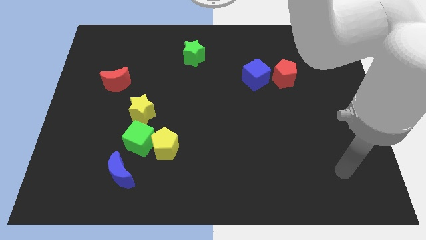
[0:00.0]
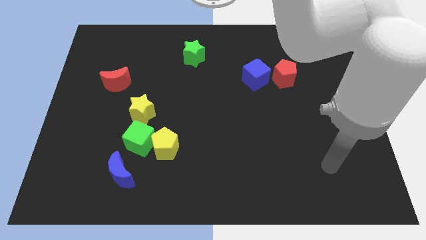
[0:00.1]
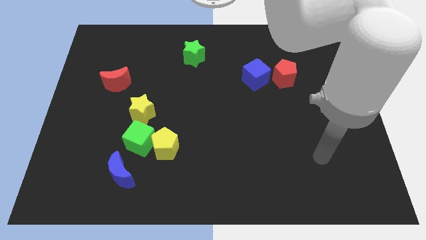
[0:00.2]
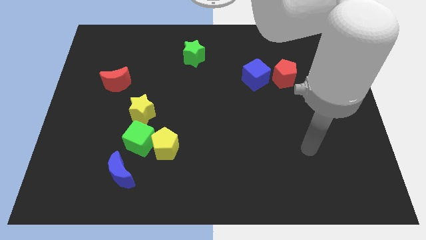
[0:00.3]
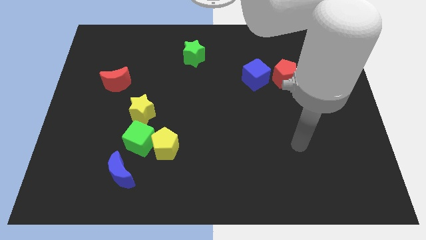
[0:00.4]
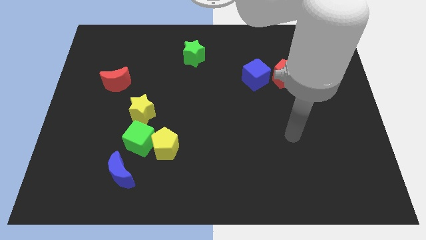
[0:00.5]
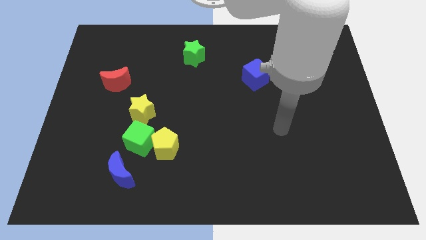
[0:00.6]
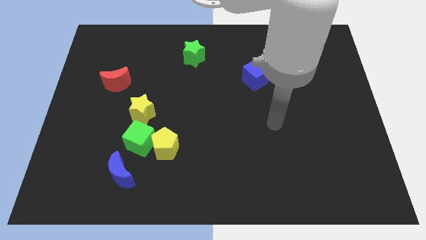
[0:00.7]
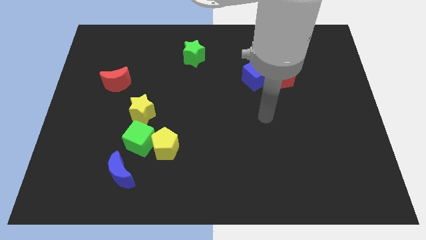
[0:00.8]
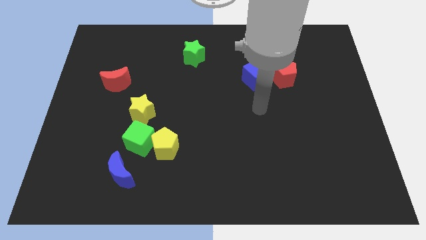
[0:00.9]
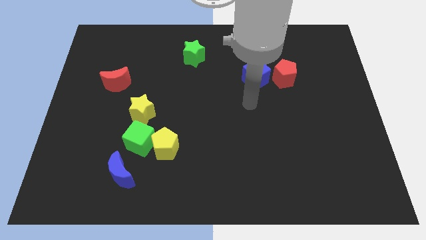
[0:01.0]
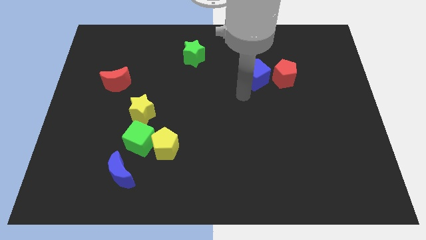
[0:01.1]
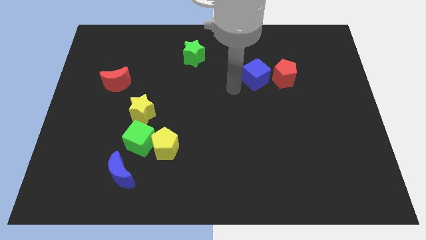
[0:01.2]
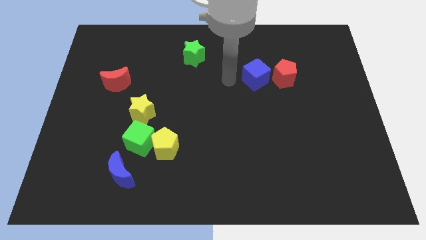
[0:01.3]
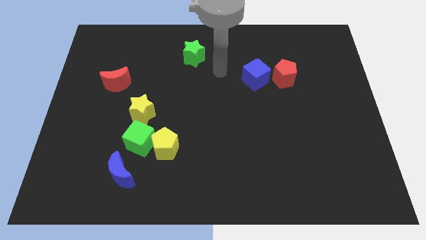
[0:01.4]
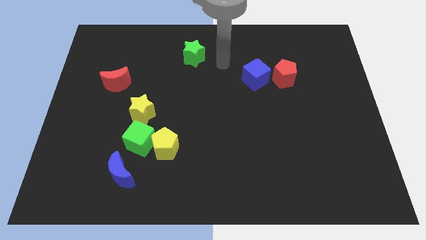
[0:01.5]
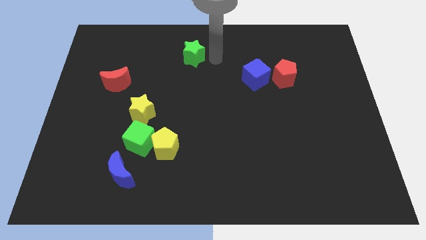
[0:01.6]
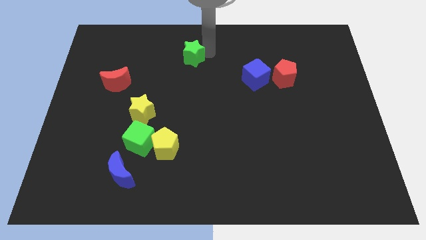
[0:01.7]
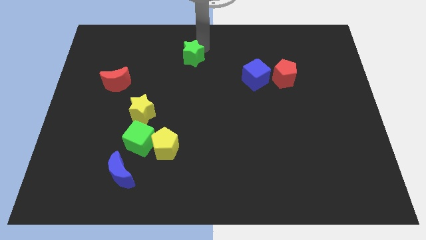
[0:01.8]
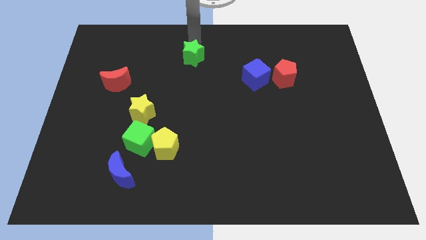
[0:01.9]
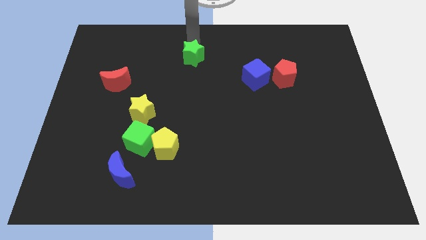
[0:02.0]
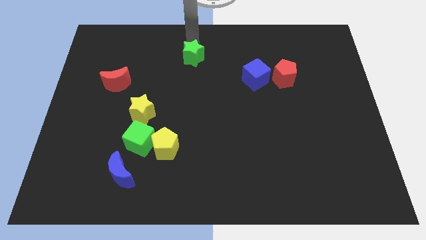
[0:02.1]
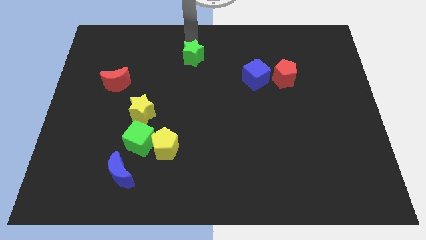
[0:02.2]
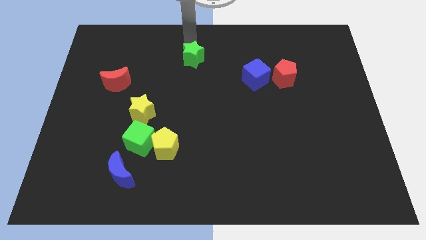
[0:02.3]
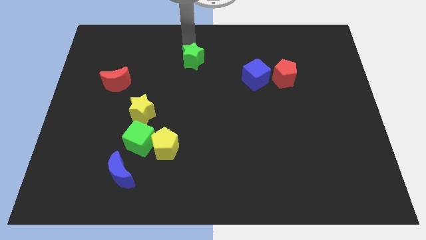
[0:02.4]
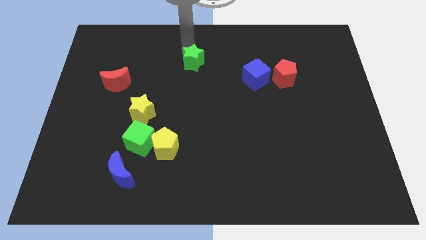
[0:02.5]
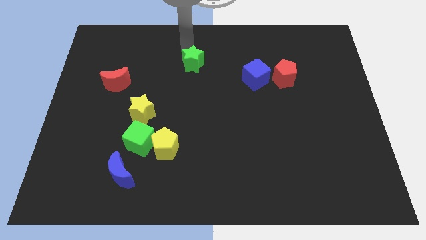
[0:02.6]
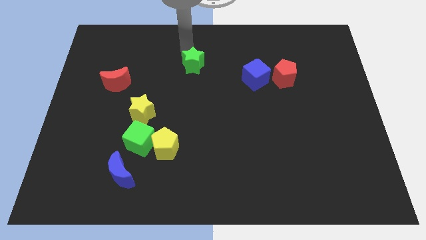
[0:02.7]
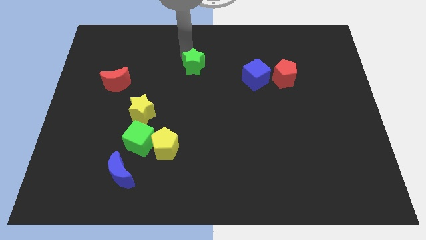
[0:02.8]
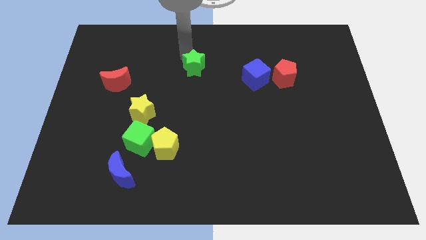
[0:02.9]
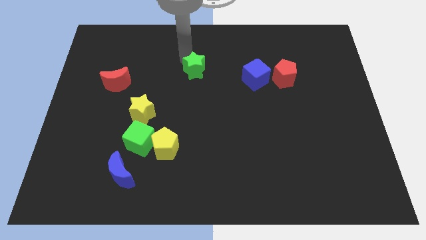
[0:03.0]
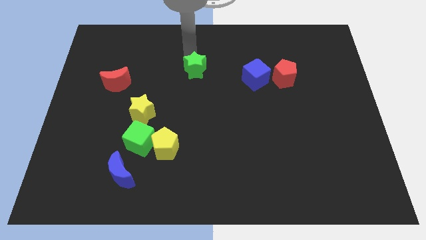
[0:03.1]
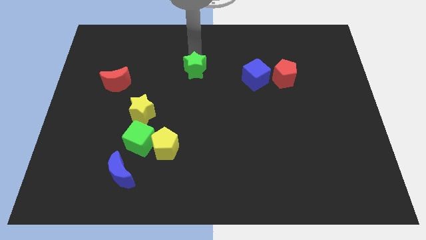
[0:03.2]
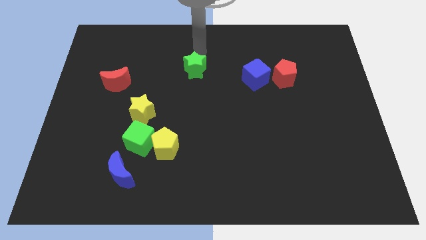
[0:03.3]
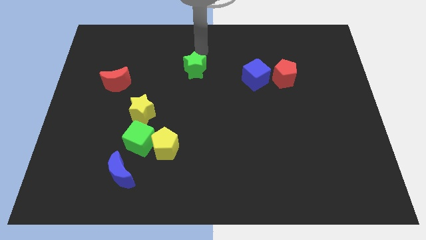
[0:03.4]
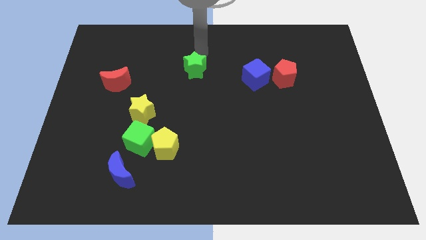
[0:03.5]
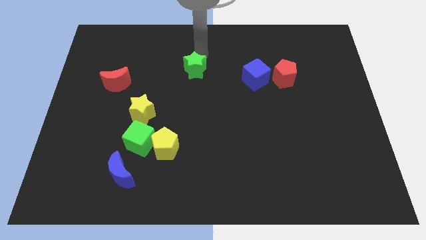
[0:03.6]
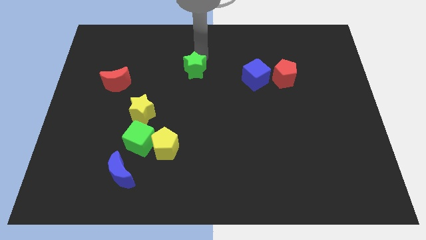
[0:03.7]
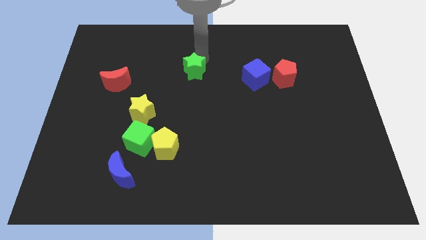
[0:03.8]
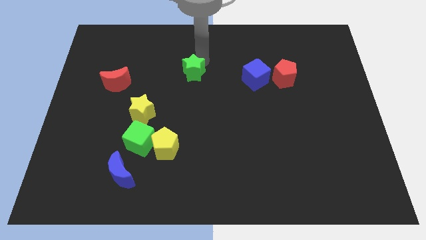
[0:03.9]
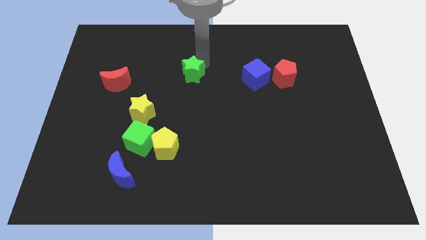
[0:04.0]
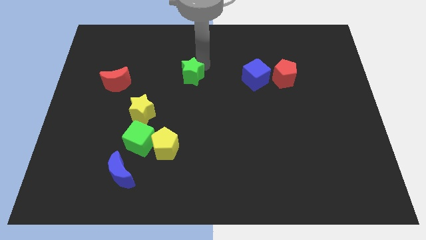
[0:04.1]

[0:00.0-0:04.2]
move the green star down somewhat

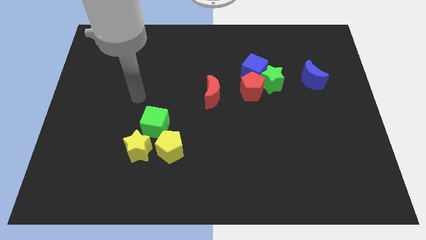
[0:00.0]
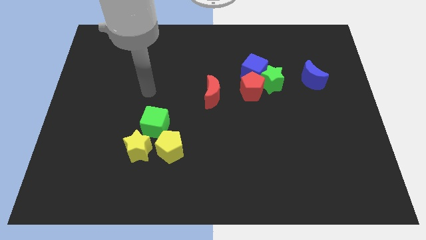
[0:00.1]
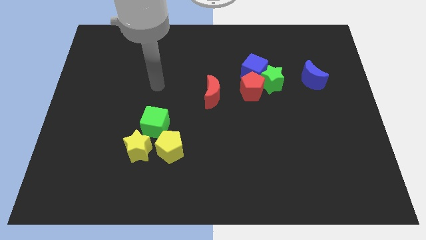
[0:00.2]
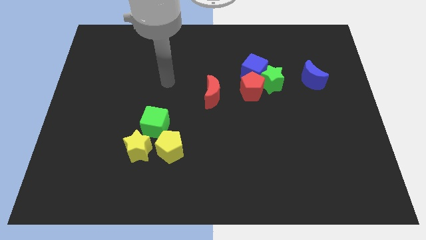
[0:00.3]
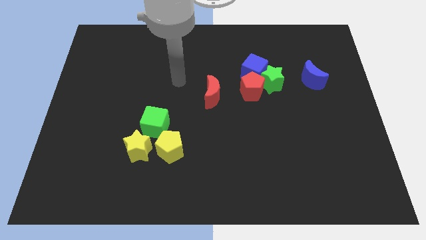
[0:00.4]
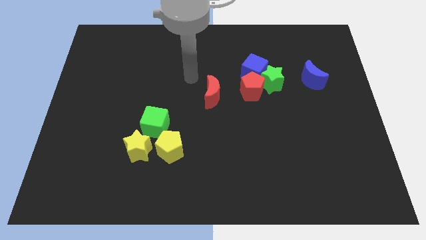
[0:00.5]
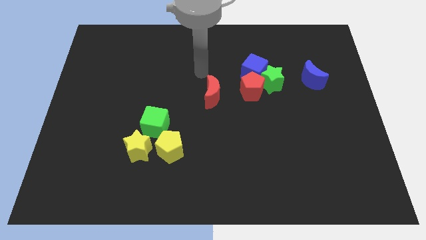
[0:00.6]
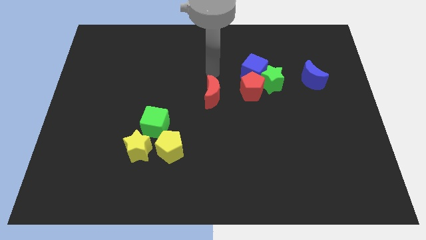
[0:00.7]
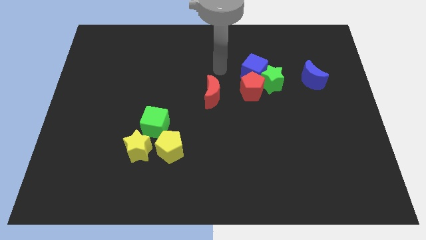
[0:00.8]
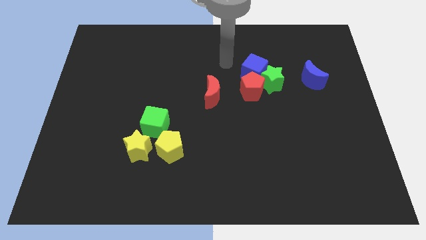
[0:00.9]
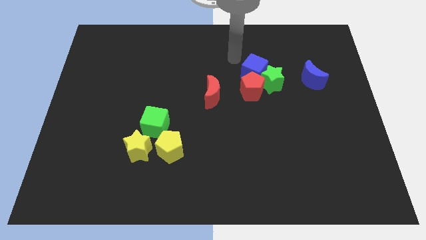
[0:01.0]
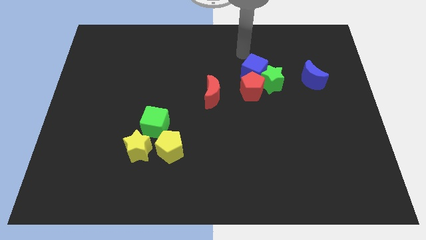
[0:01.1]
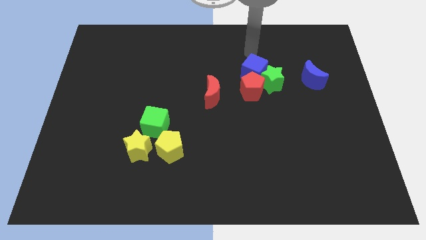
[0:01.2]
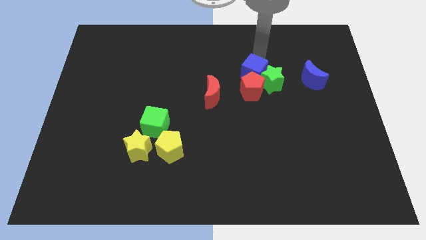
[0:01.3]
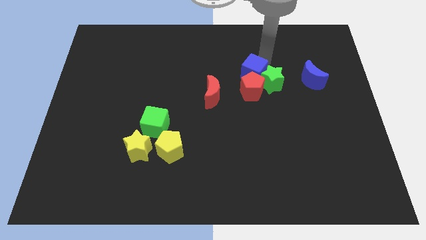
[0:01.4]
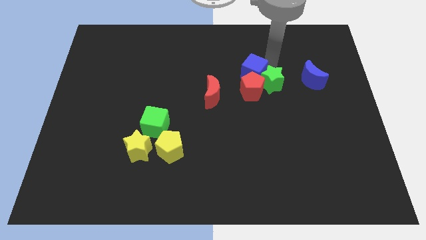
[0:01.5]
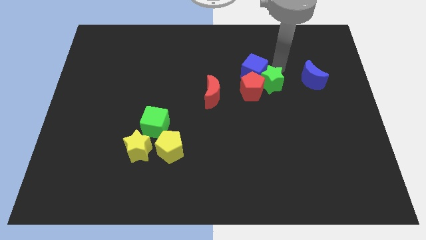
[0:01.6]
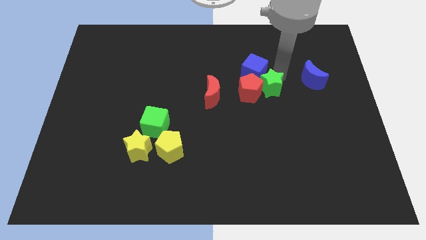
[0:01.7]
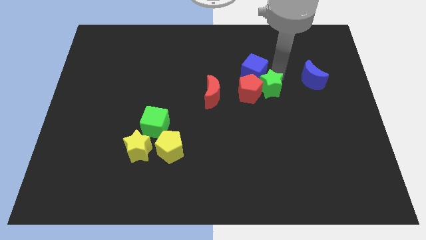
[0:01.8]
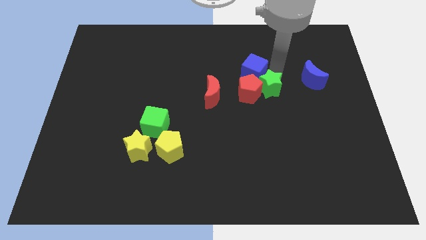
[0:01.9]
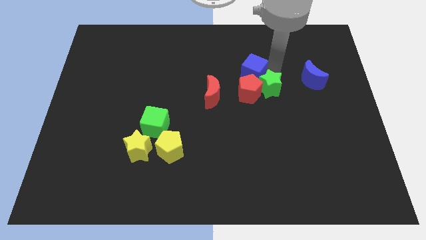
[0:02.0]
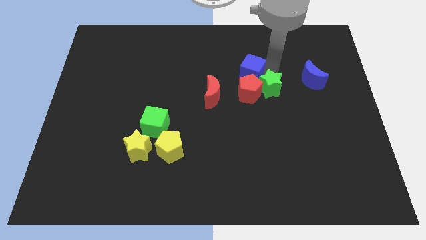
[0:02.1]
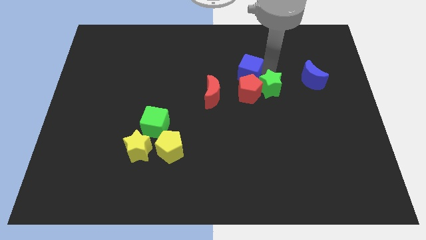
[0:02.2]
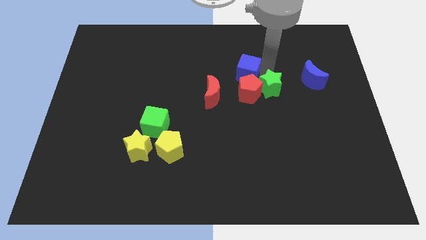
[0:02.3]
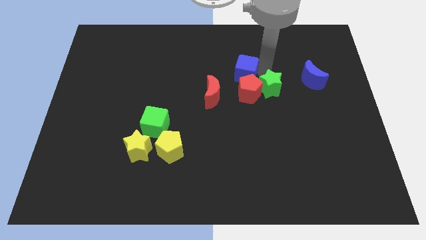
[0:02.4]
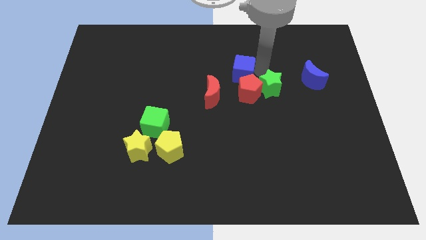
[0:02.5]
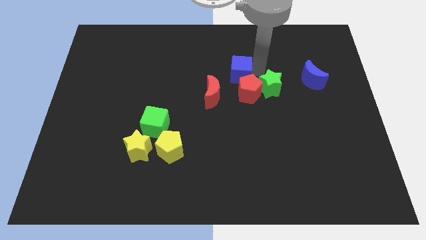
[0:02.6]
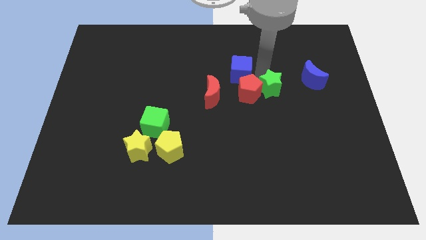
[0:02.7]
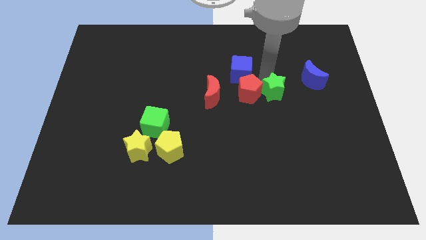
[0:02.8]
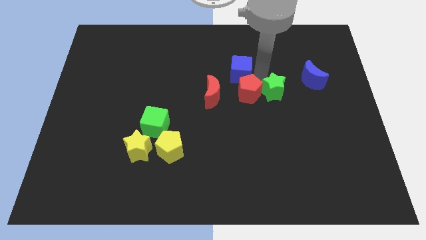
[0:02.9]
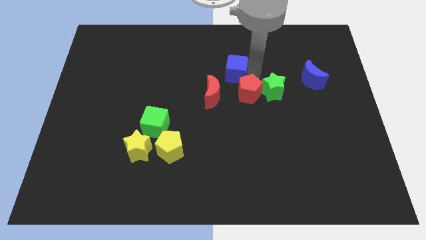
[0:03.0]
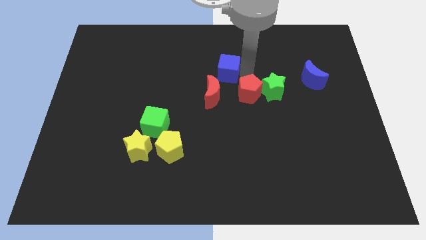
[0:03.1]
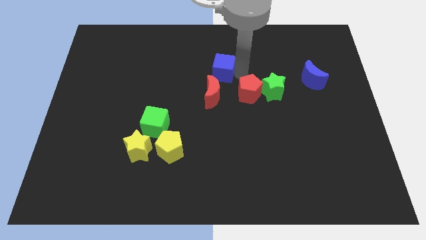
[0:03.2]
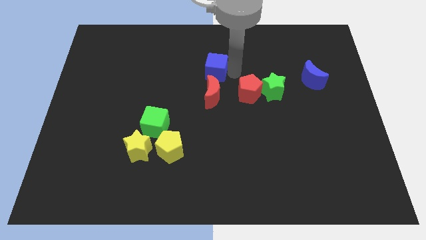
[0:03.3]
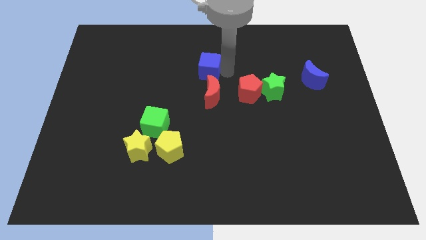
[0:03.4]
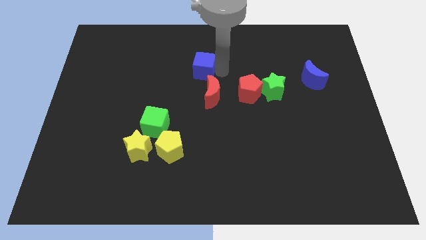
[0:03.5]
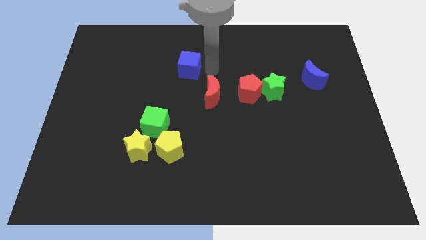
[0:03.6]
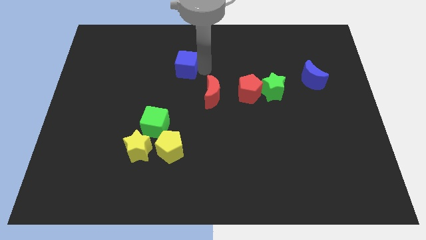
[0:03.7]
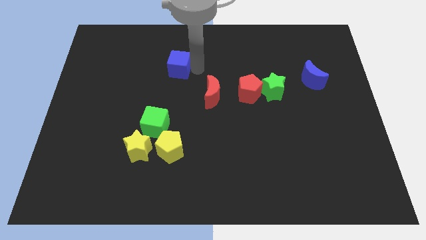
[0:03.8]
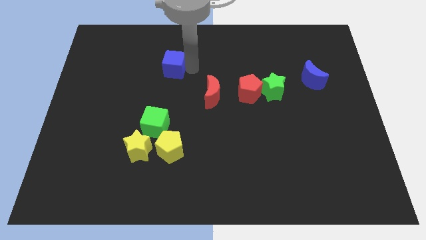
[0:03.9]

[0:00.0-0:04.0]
slide the blue cube to the left
